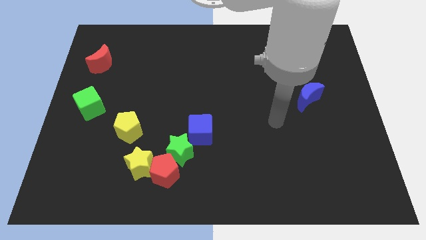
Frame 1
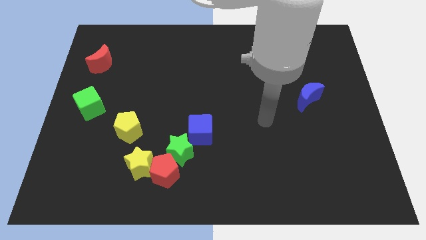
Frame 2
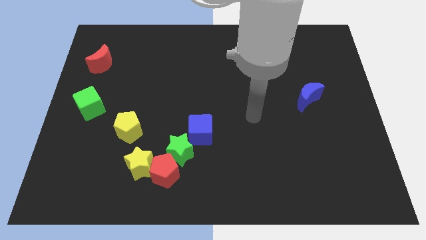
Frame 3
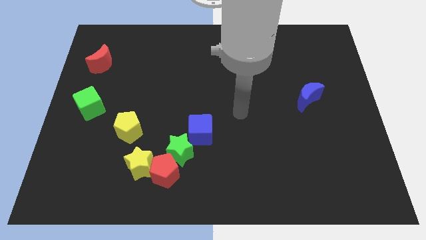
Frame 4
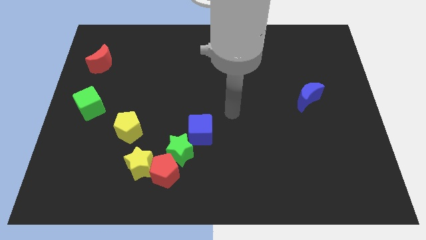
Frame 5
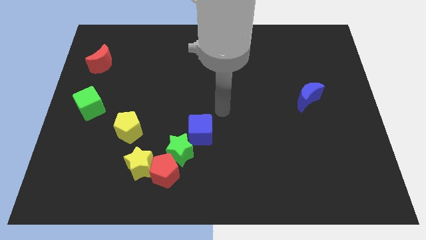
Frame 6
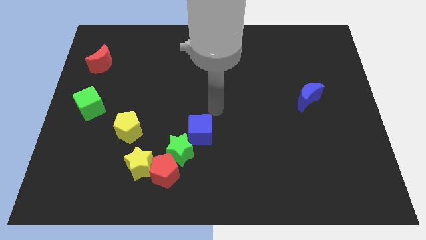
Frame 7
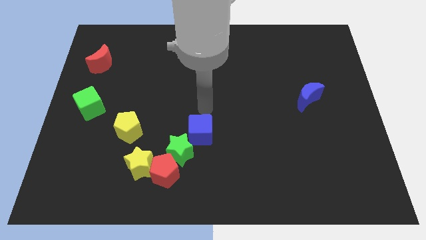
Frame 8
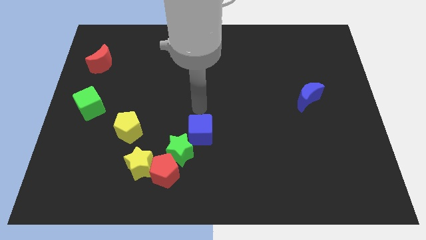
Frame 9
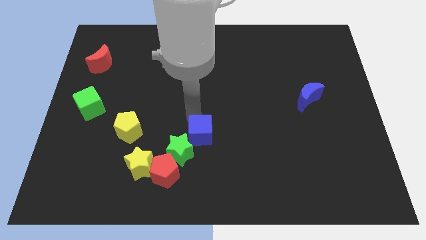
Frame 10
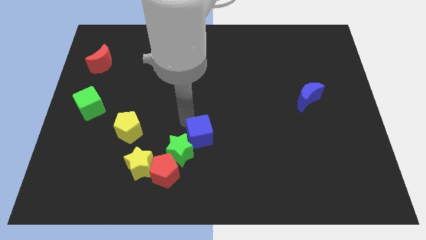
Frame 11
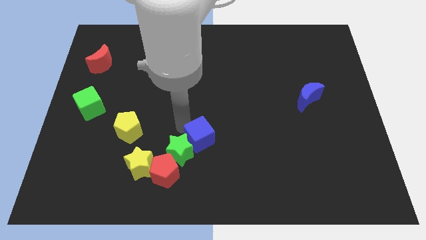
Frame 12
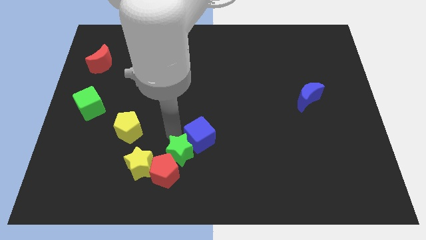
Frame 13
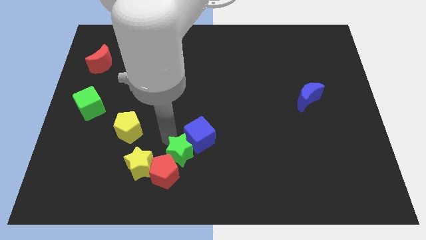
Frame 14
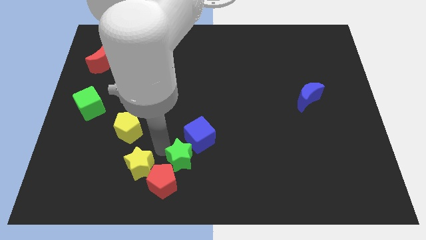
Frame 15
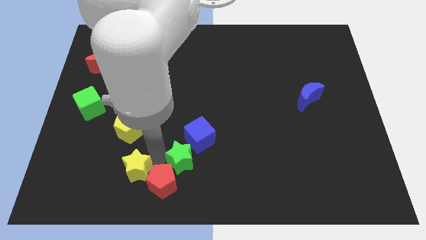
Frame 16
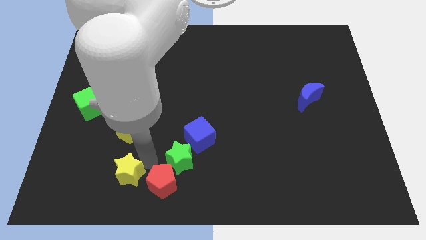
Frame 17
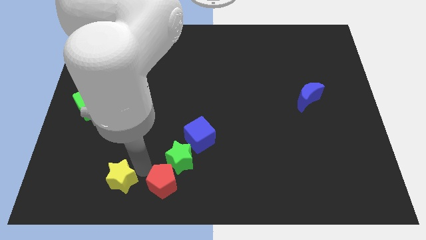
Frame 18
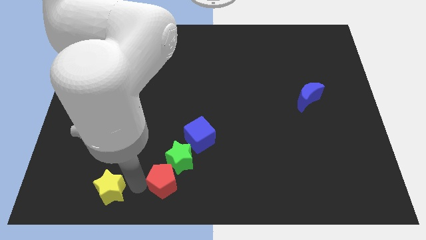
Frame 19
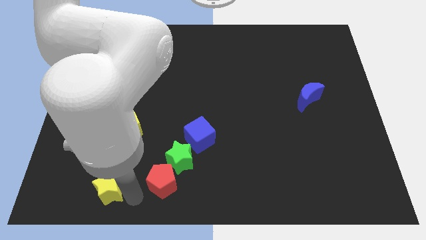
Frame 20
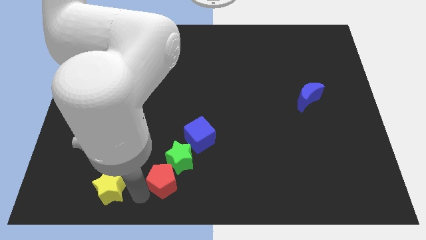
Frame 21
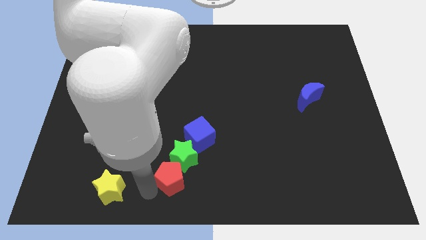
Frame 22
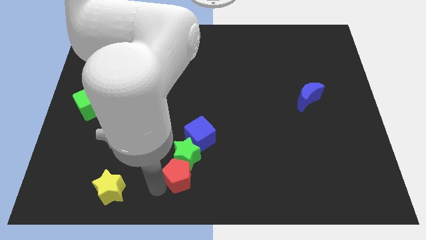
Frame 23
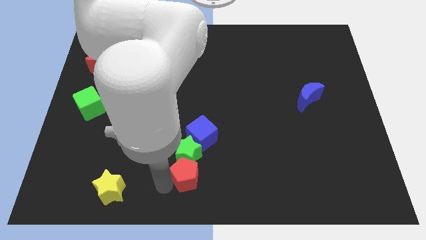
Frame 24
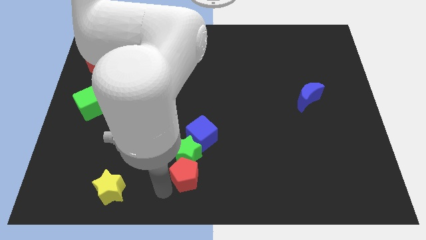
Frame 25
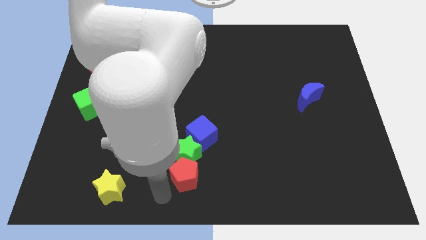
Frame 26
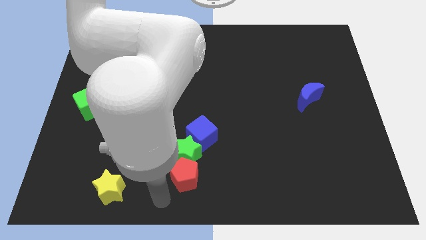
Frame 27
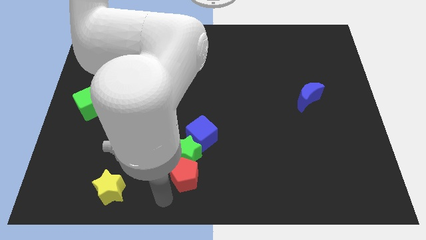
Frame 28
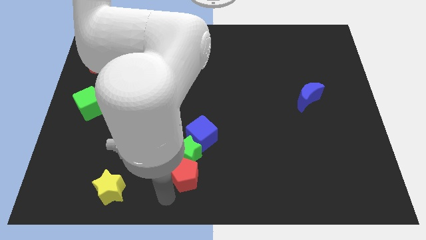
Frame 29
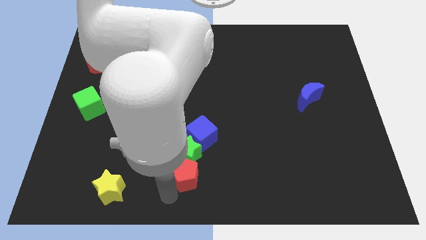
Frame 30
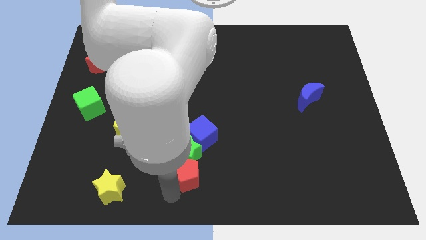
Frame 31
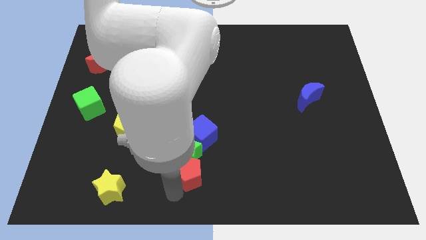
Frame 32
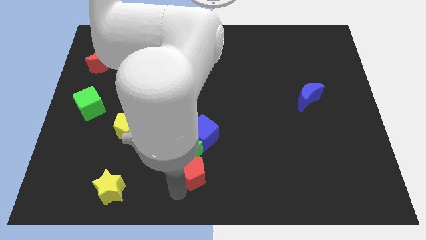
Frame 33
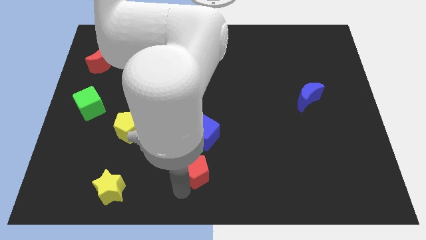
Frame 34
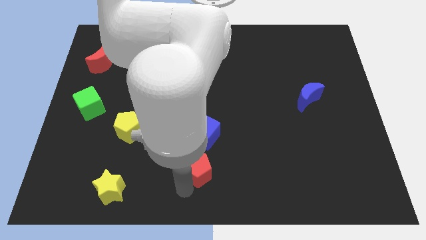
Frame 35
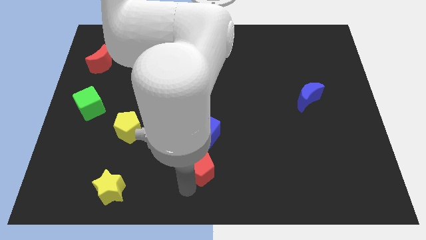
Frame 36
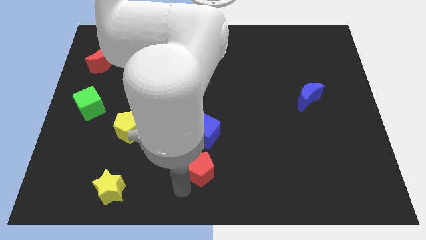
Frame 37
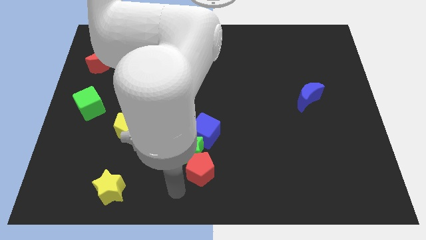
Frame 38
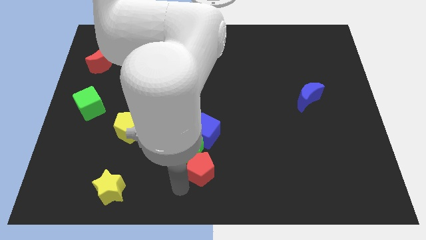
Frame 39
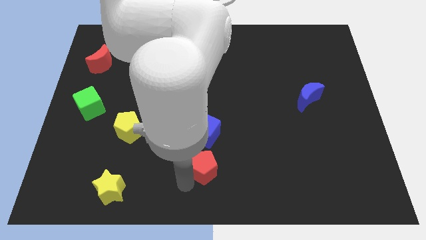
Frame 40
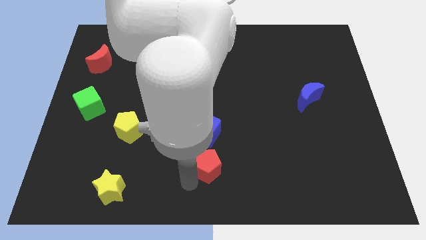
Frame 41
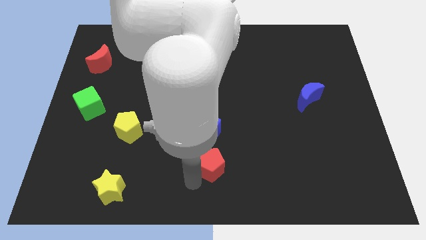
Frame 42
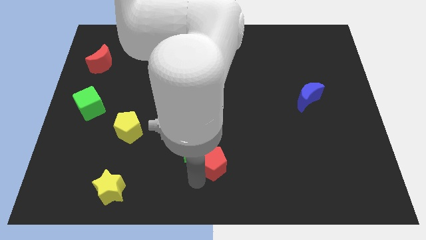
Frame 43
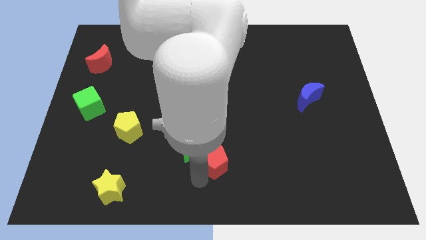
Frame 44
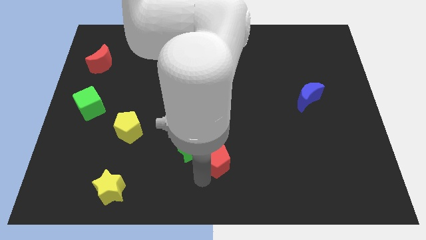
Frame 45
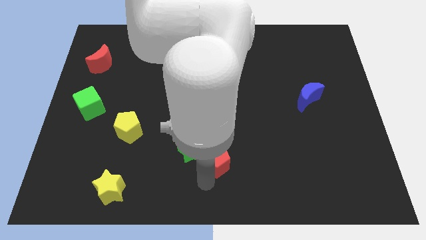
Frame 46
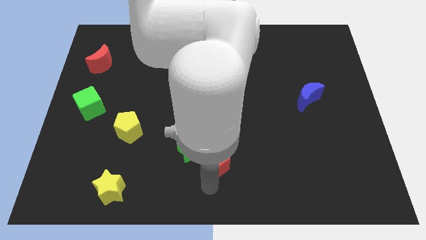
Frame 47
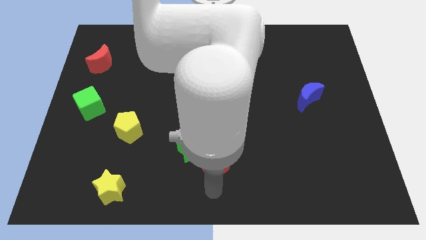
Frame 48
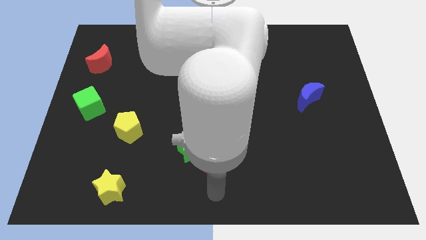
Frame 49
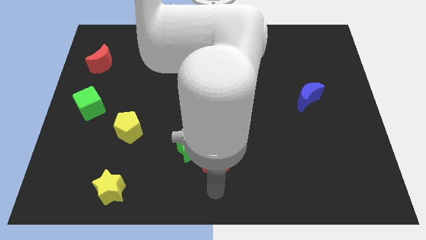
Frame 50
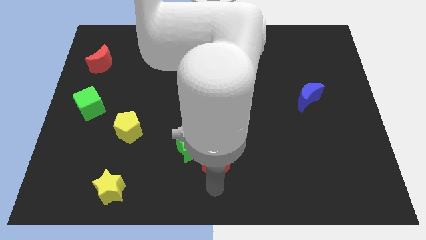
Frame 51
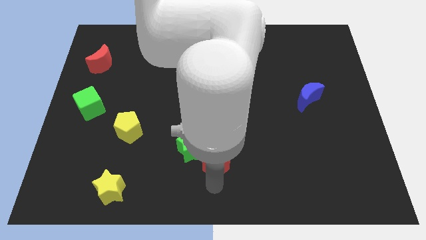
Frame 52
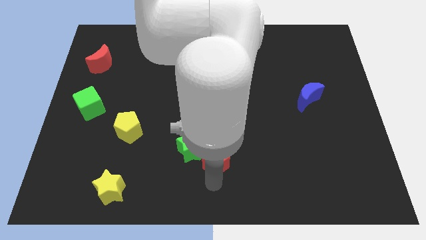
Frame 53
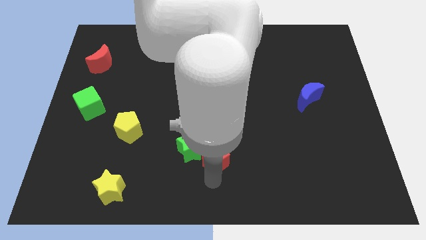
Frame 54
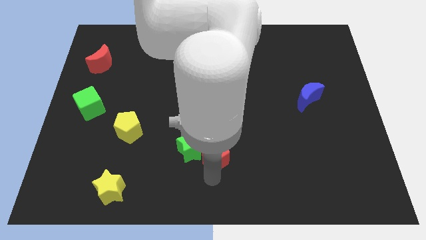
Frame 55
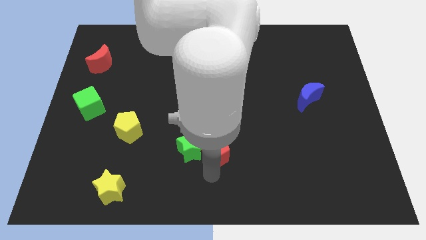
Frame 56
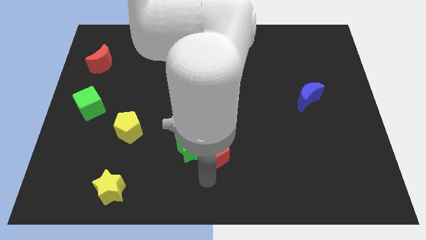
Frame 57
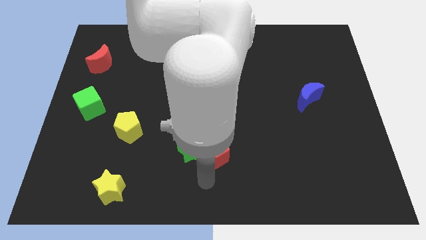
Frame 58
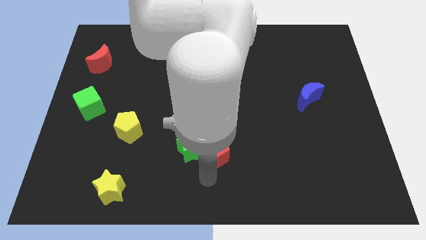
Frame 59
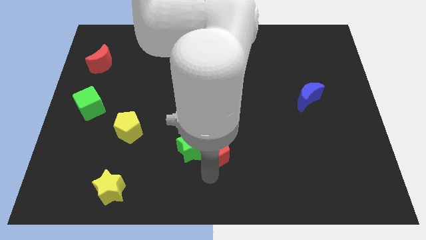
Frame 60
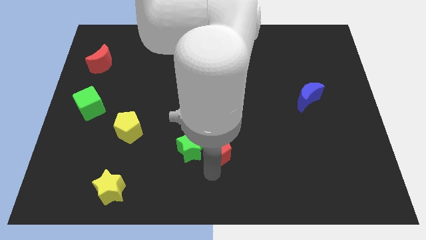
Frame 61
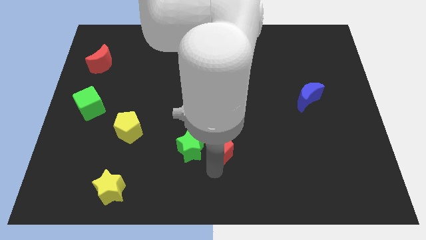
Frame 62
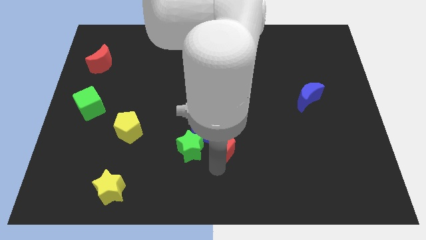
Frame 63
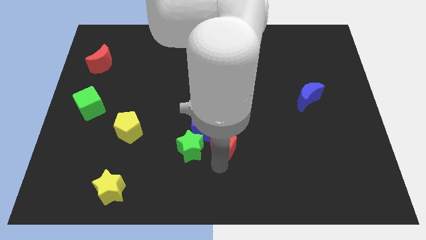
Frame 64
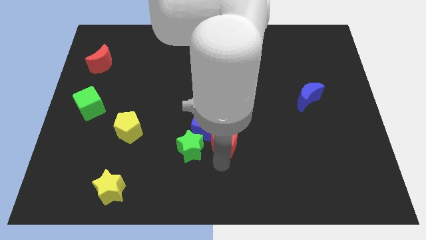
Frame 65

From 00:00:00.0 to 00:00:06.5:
push the red pentagon to the center of the board
